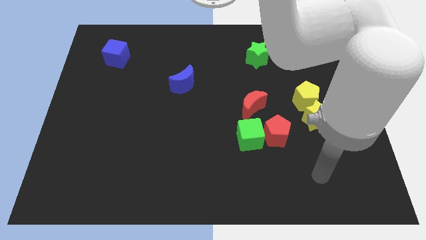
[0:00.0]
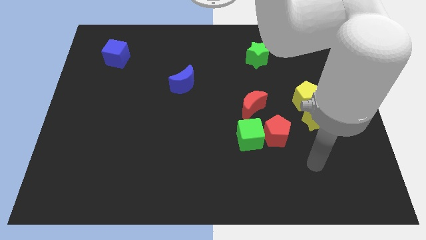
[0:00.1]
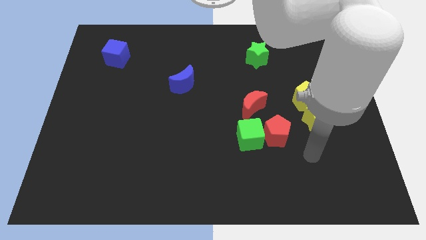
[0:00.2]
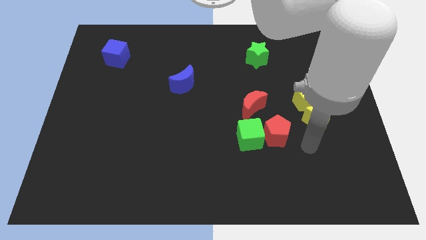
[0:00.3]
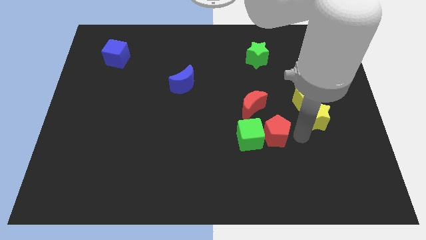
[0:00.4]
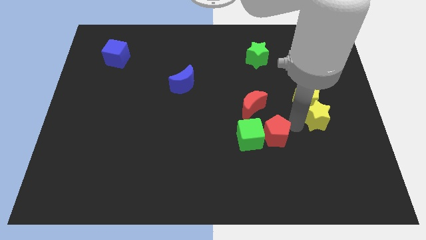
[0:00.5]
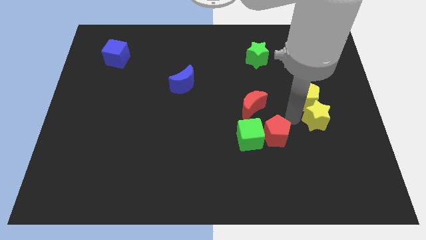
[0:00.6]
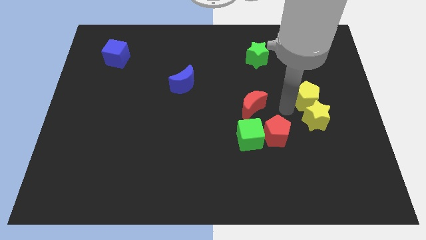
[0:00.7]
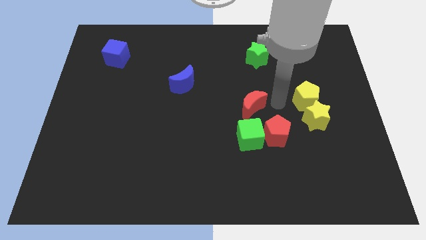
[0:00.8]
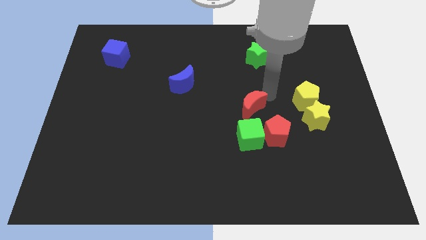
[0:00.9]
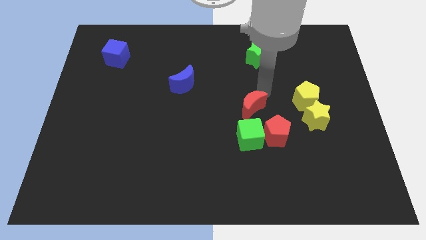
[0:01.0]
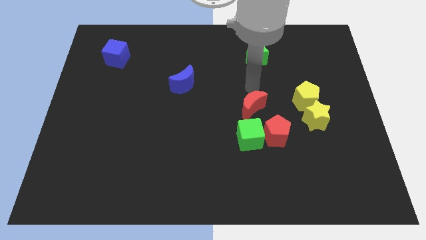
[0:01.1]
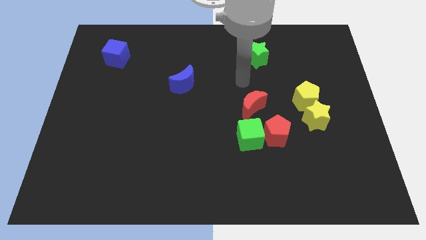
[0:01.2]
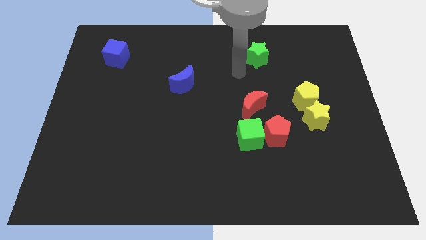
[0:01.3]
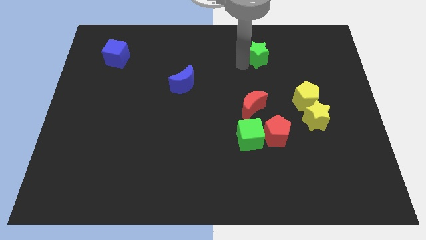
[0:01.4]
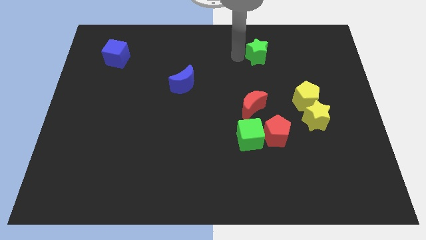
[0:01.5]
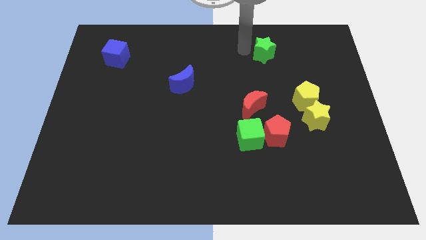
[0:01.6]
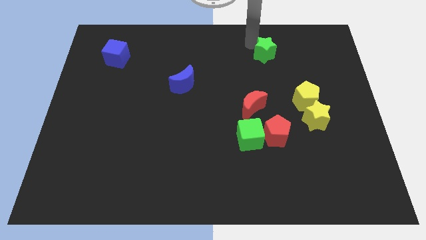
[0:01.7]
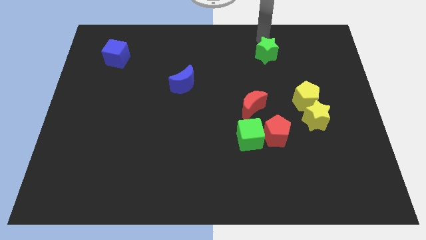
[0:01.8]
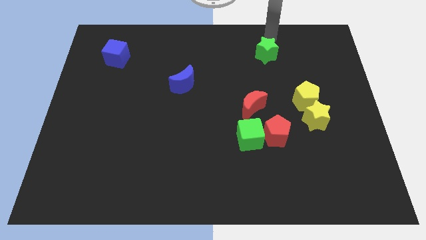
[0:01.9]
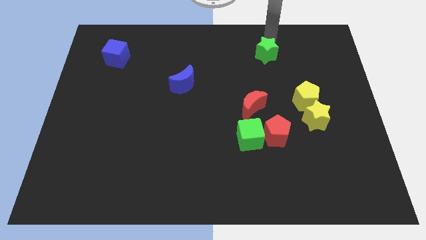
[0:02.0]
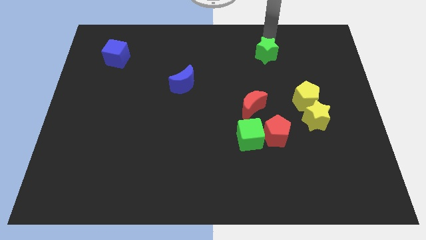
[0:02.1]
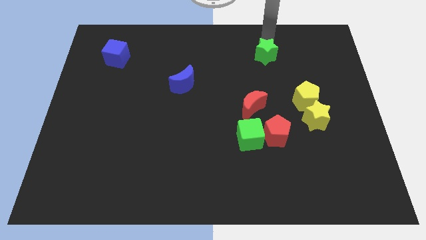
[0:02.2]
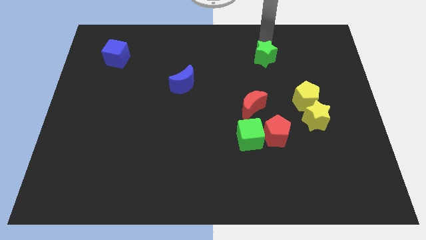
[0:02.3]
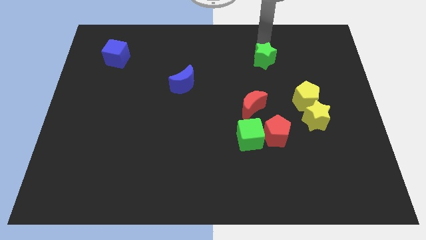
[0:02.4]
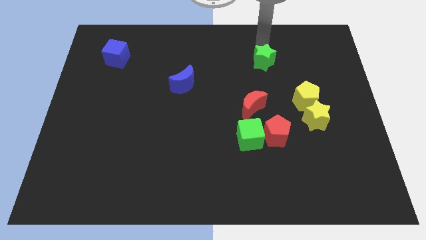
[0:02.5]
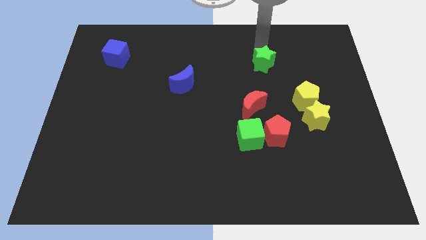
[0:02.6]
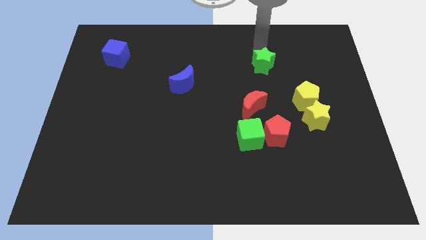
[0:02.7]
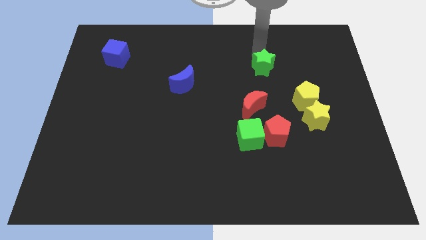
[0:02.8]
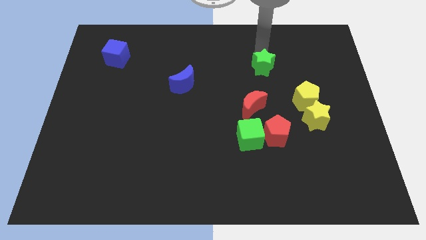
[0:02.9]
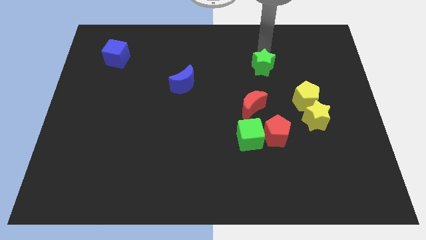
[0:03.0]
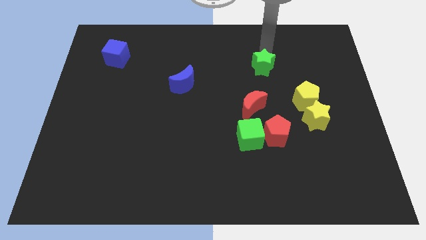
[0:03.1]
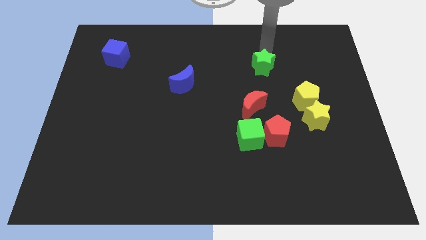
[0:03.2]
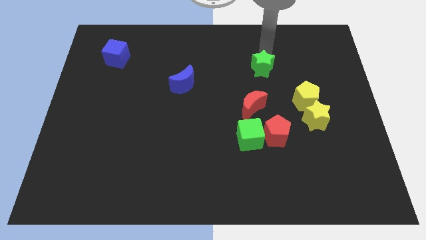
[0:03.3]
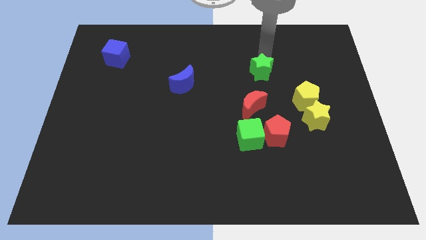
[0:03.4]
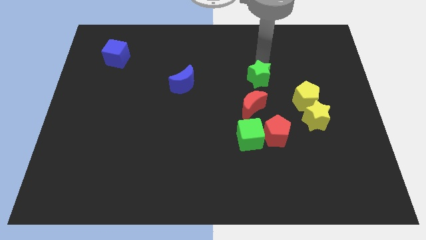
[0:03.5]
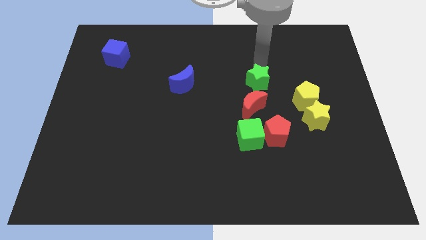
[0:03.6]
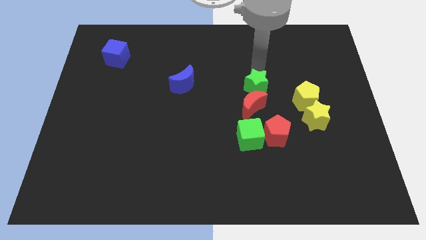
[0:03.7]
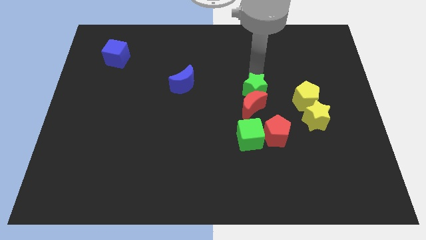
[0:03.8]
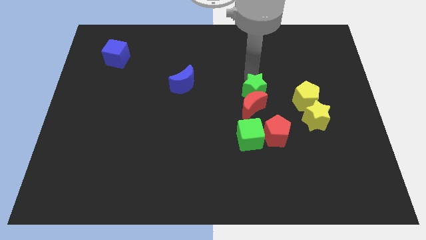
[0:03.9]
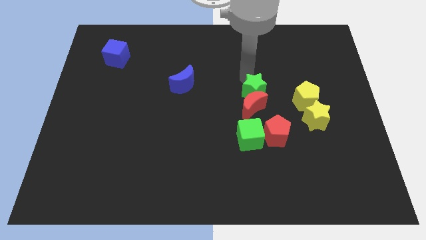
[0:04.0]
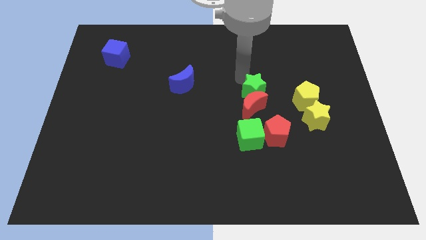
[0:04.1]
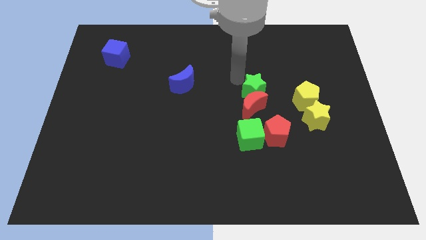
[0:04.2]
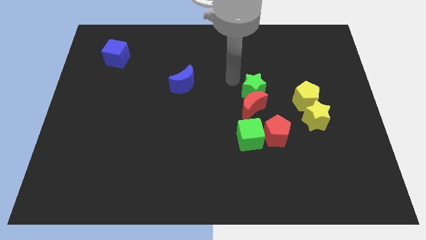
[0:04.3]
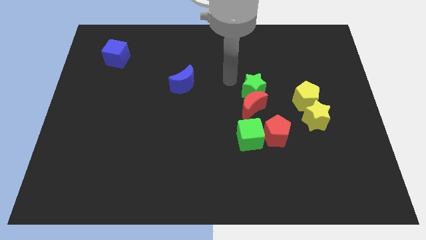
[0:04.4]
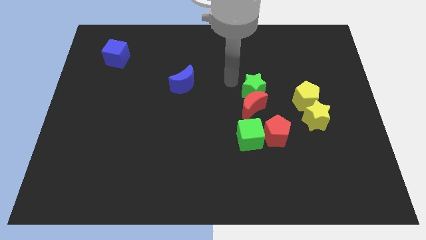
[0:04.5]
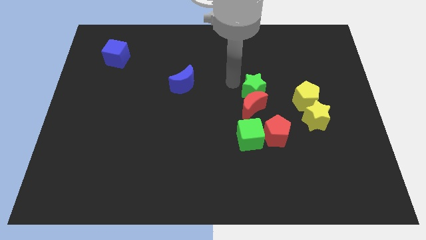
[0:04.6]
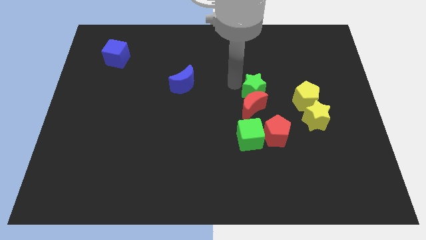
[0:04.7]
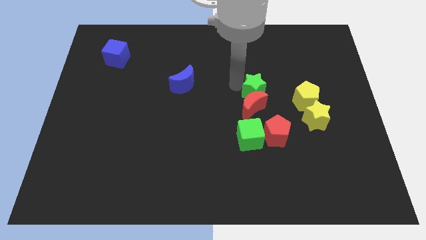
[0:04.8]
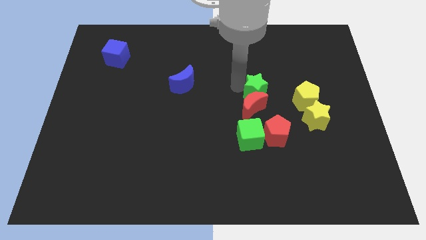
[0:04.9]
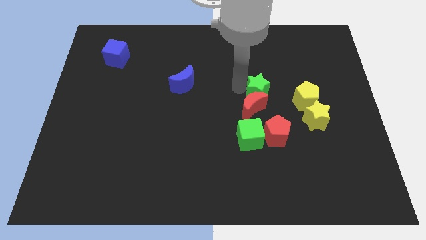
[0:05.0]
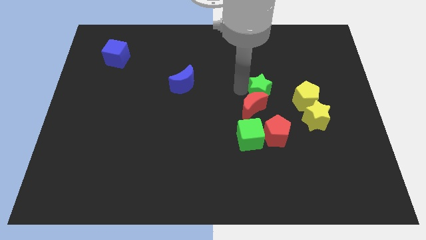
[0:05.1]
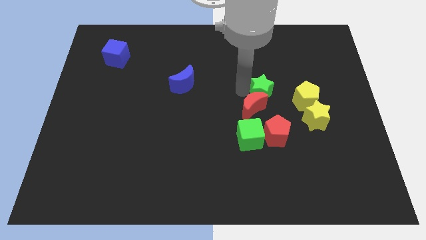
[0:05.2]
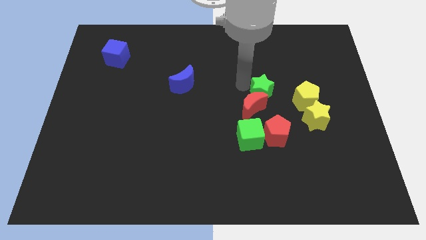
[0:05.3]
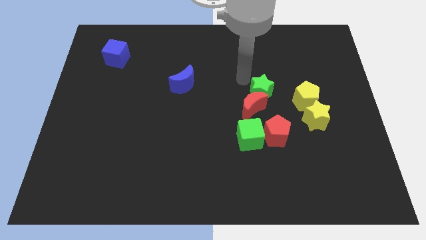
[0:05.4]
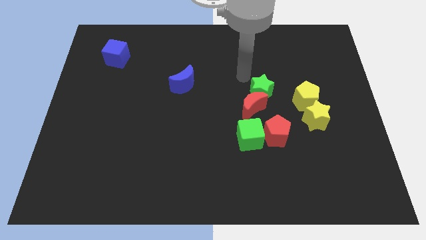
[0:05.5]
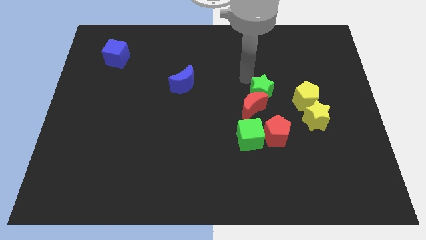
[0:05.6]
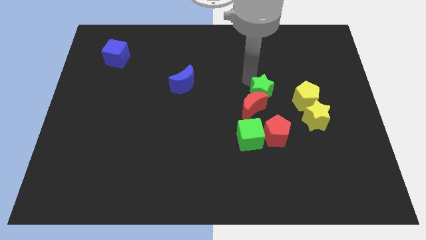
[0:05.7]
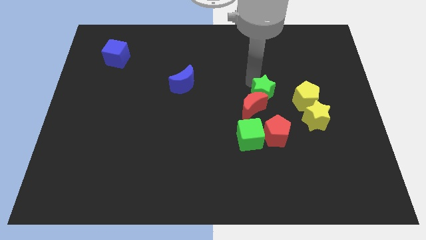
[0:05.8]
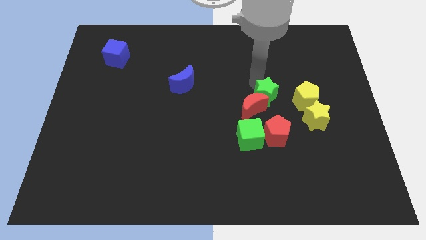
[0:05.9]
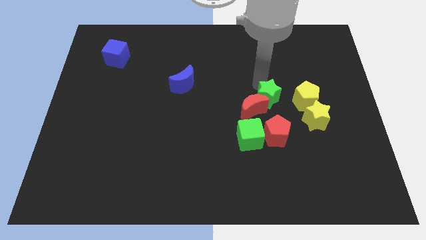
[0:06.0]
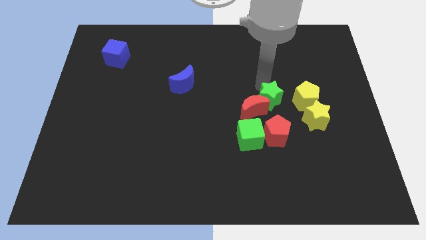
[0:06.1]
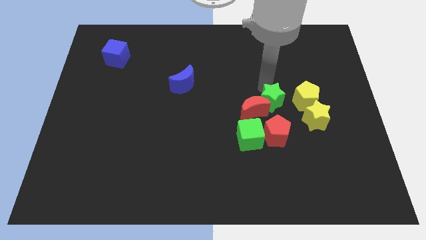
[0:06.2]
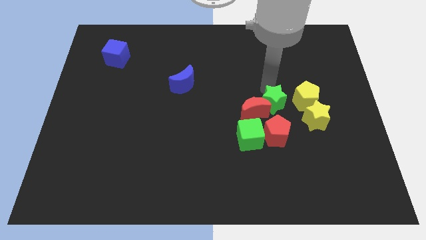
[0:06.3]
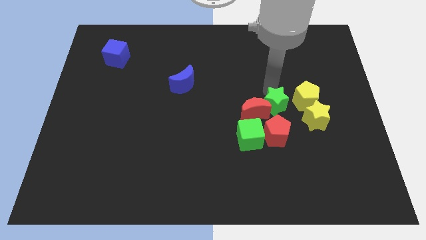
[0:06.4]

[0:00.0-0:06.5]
push the green star to the bottom left of the yellow pentagon
